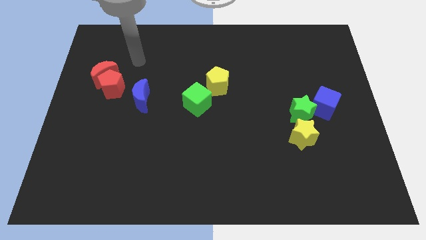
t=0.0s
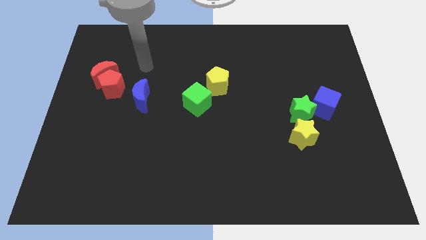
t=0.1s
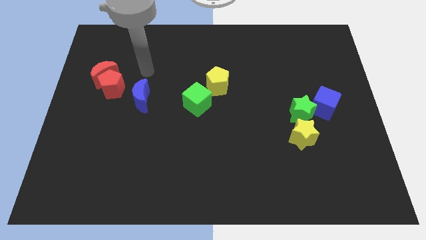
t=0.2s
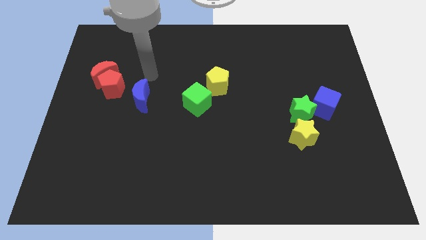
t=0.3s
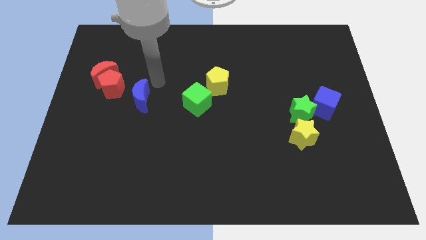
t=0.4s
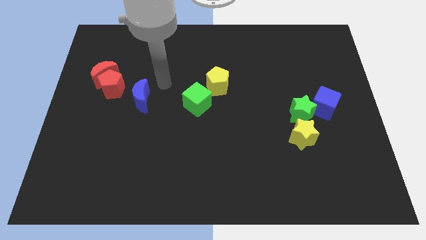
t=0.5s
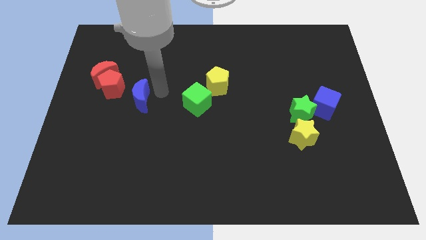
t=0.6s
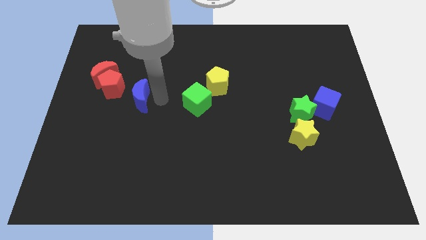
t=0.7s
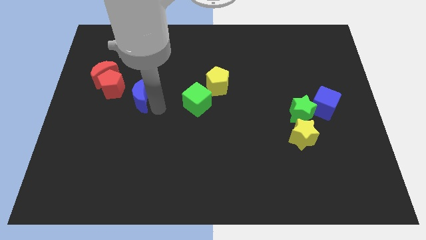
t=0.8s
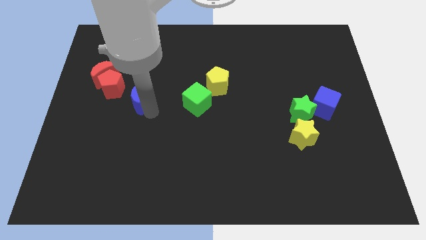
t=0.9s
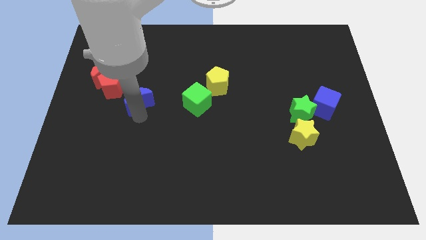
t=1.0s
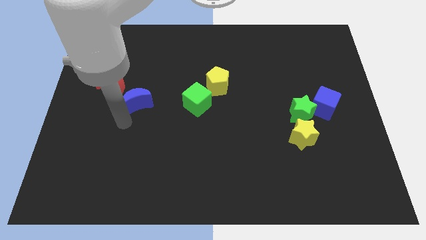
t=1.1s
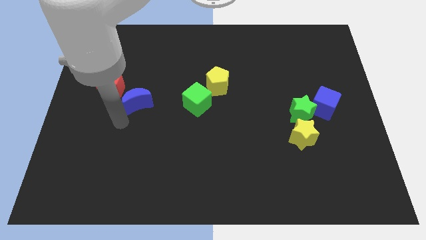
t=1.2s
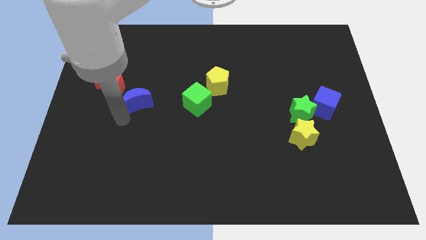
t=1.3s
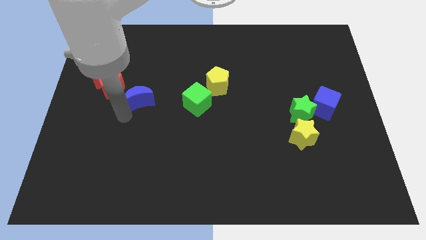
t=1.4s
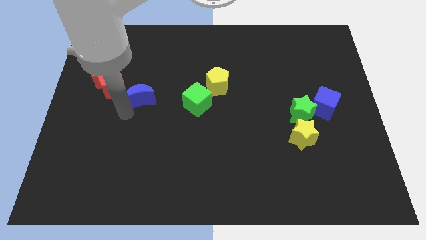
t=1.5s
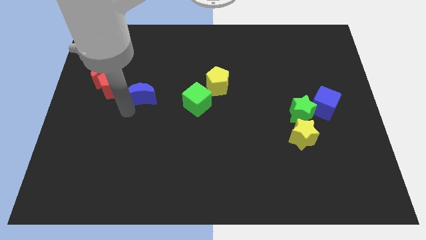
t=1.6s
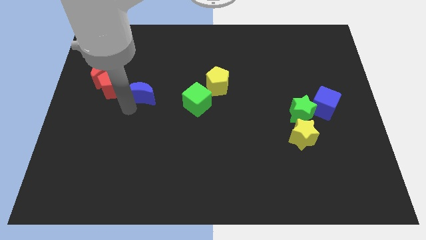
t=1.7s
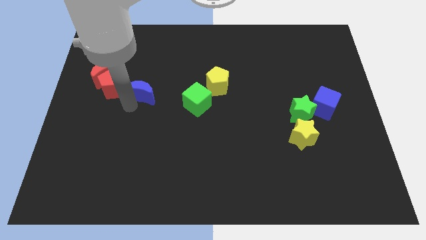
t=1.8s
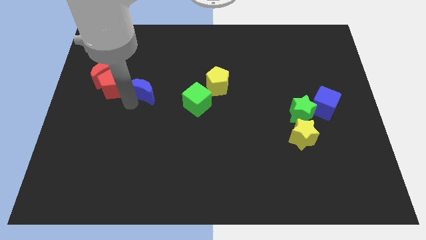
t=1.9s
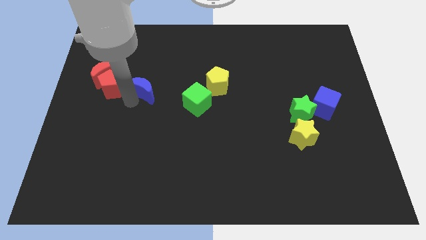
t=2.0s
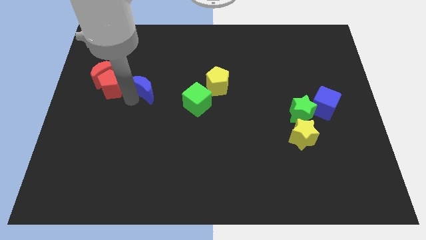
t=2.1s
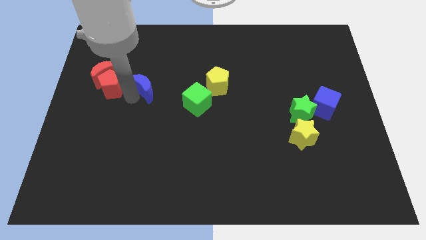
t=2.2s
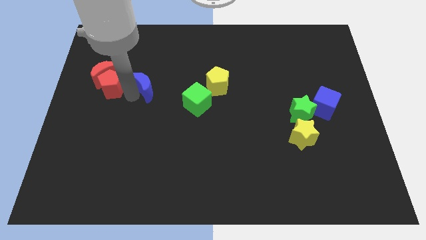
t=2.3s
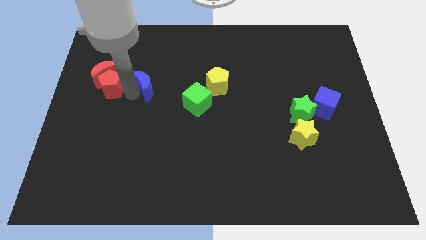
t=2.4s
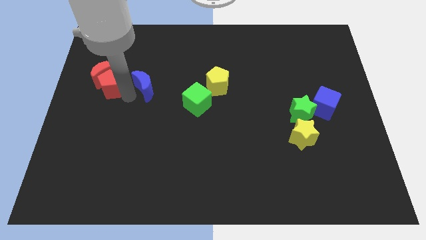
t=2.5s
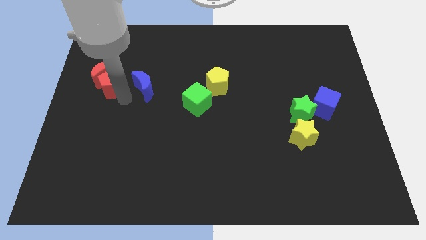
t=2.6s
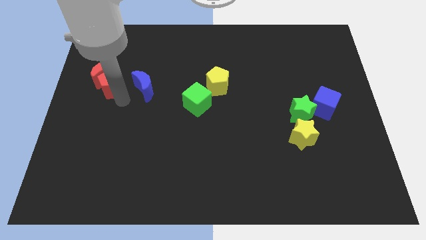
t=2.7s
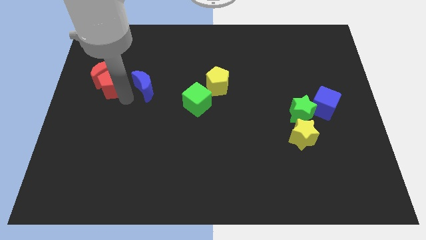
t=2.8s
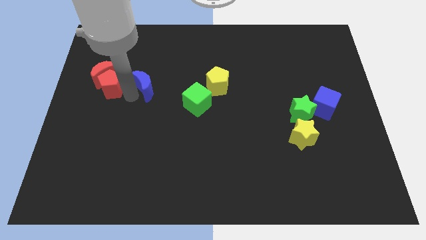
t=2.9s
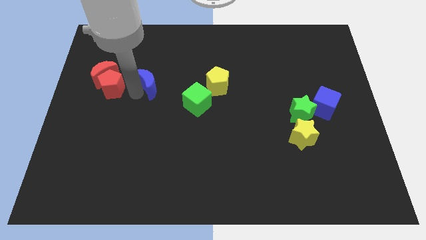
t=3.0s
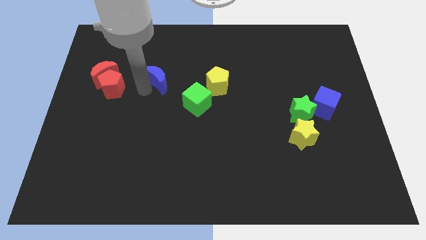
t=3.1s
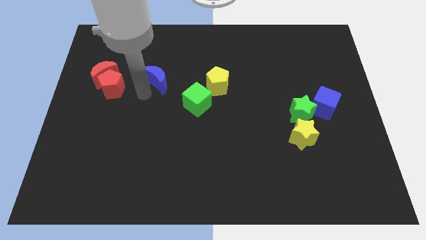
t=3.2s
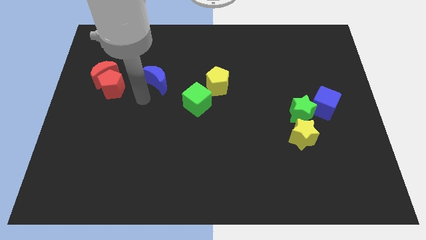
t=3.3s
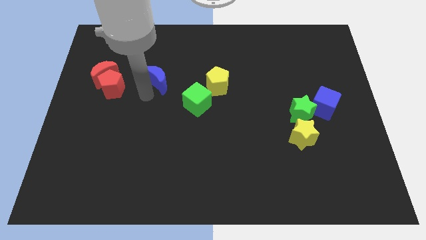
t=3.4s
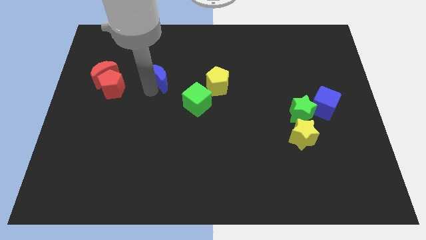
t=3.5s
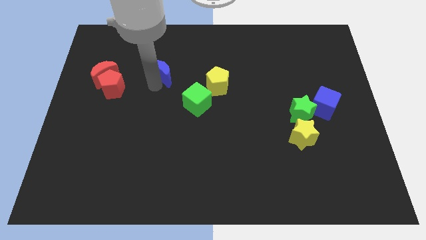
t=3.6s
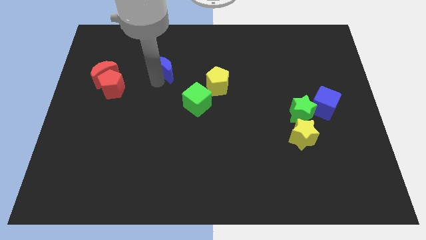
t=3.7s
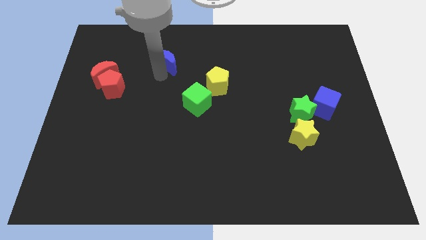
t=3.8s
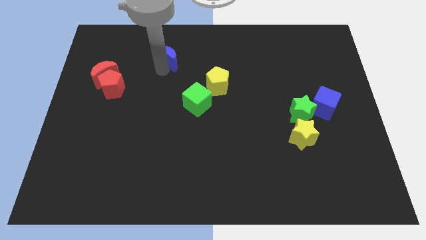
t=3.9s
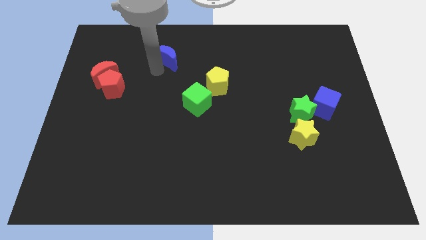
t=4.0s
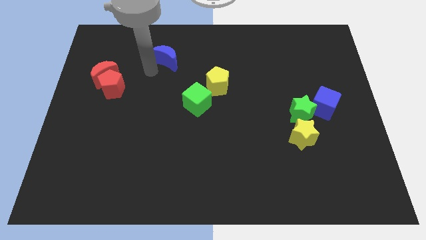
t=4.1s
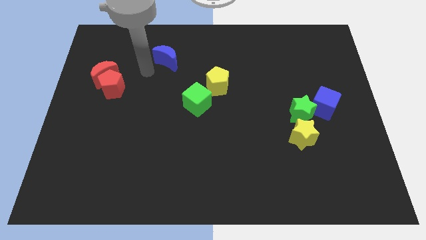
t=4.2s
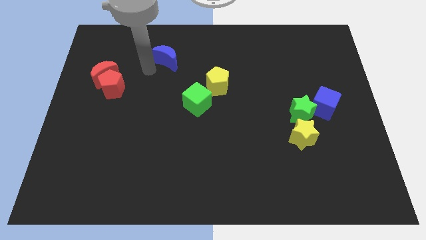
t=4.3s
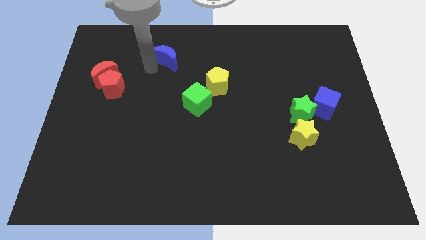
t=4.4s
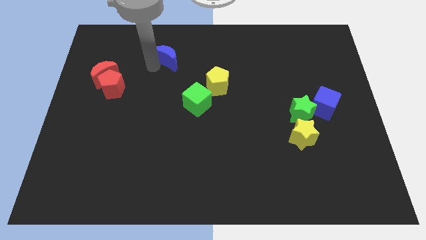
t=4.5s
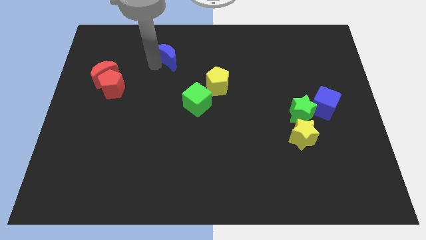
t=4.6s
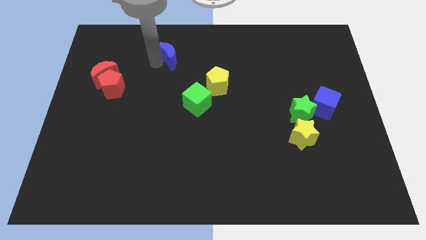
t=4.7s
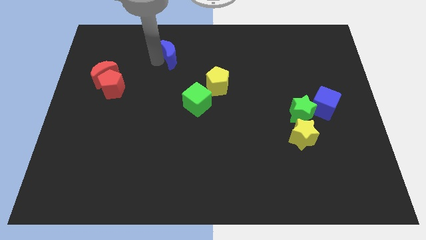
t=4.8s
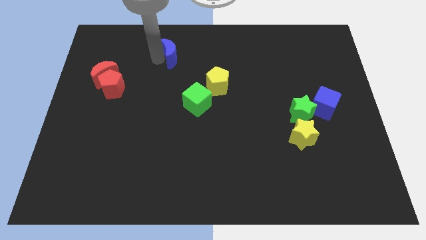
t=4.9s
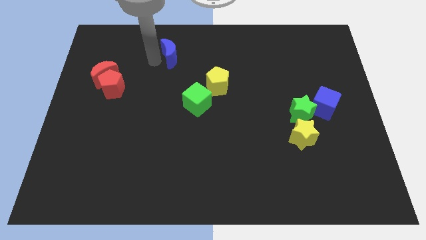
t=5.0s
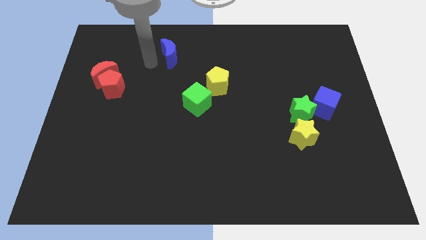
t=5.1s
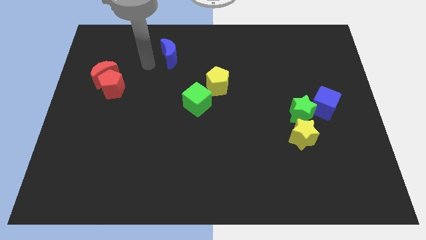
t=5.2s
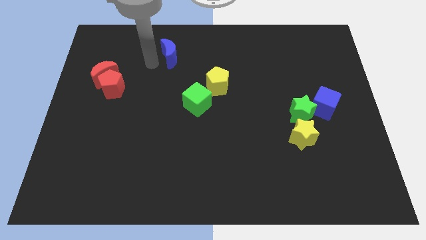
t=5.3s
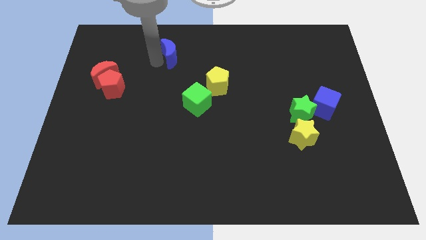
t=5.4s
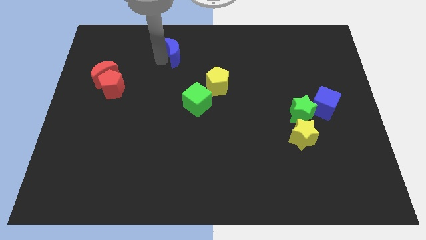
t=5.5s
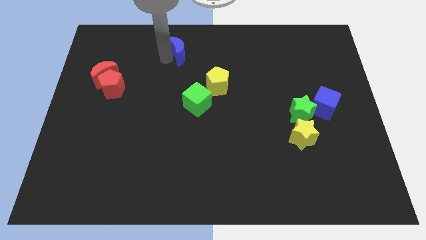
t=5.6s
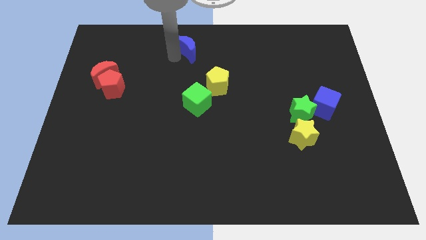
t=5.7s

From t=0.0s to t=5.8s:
move the blue moon to the top side

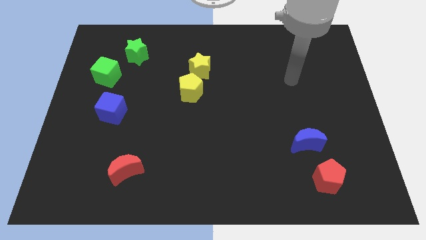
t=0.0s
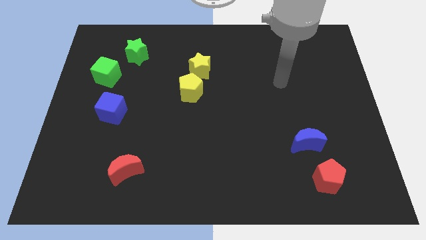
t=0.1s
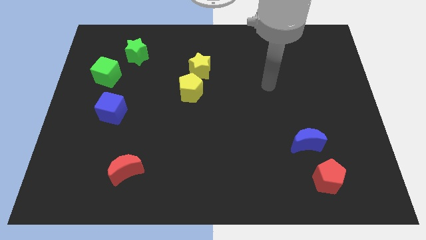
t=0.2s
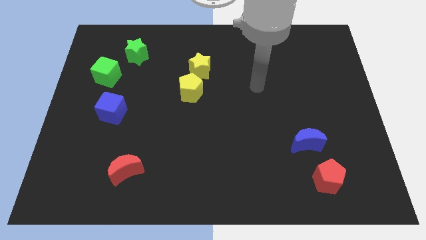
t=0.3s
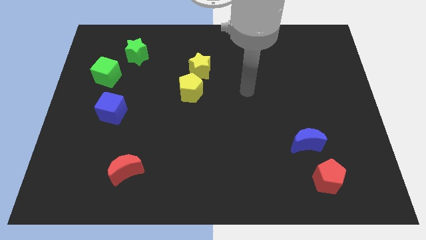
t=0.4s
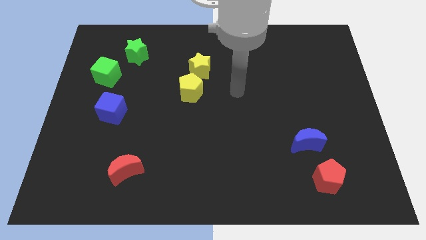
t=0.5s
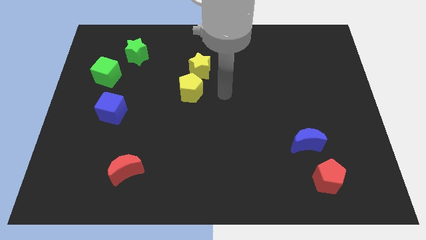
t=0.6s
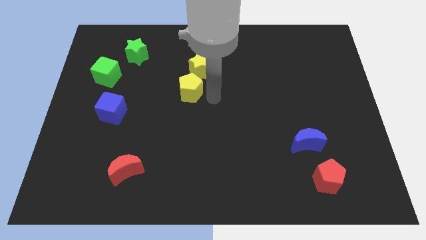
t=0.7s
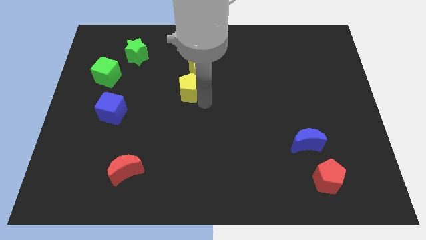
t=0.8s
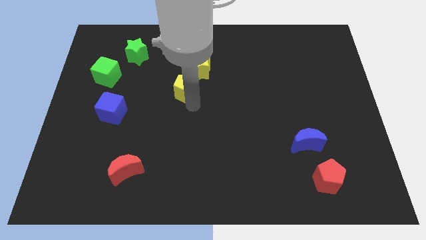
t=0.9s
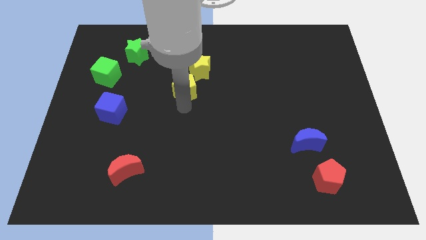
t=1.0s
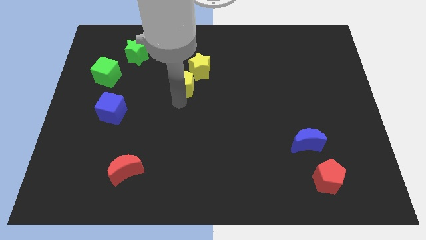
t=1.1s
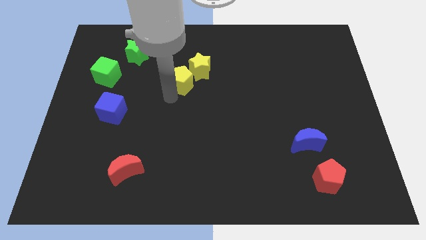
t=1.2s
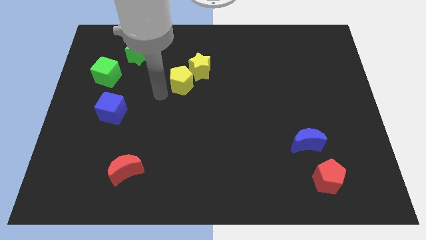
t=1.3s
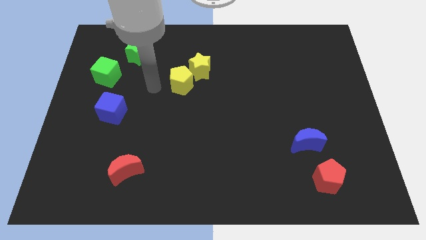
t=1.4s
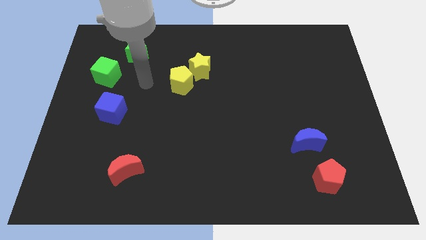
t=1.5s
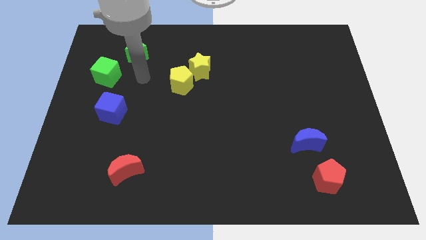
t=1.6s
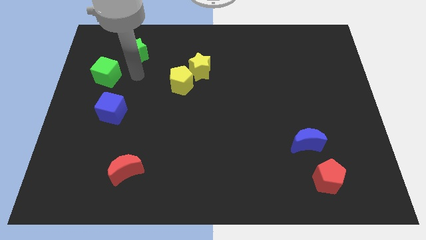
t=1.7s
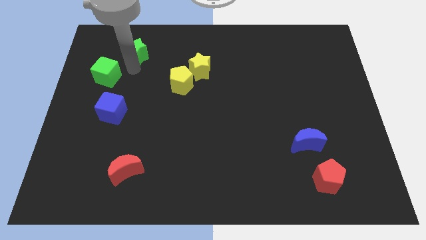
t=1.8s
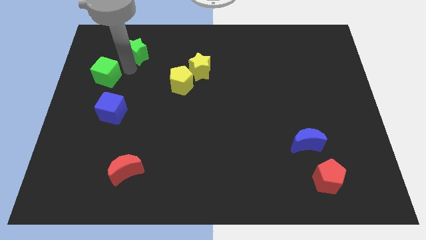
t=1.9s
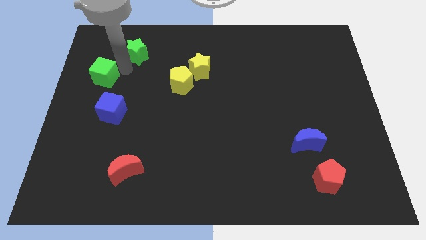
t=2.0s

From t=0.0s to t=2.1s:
push the green cube to the left side

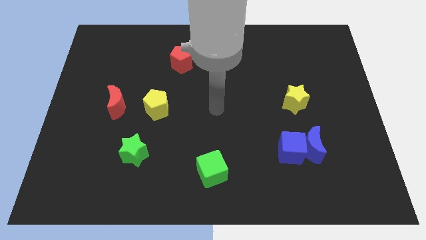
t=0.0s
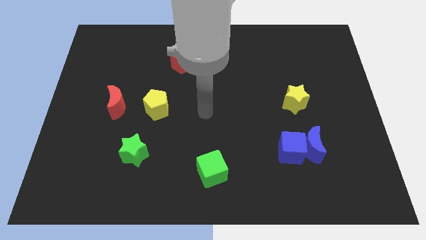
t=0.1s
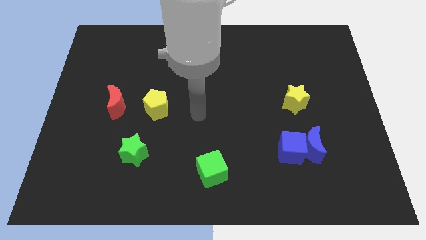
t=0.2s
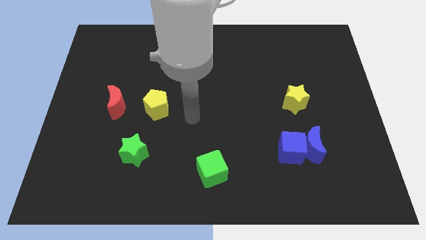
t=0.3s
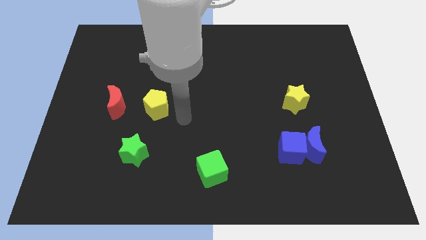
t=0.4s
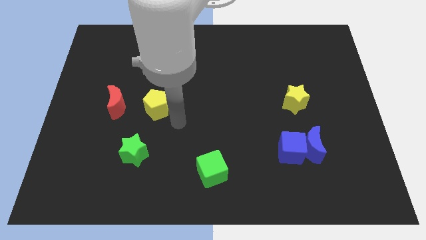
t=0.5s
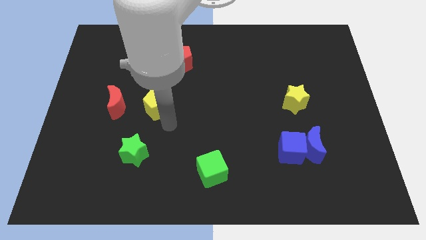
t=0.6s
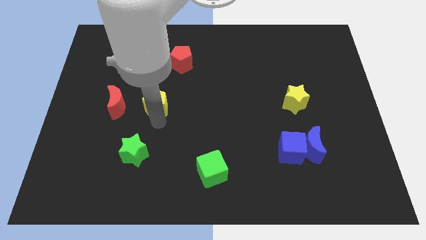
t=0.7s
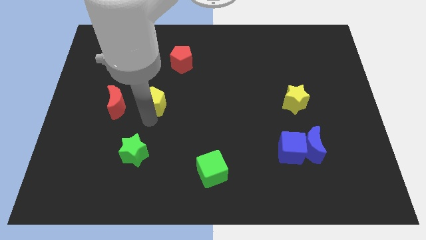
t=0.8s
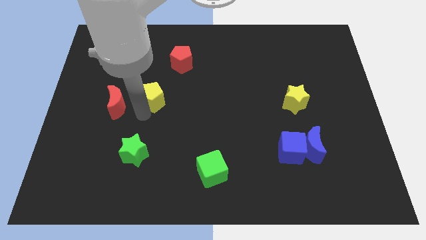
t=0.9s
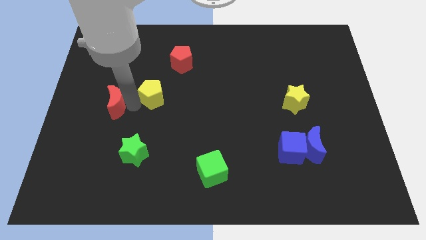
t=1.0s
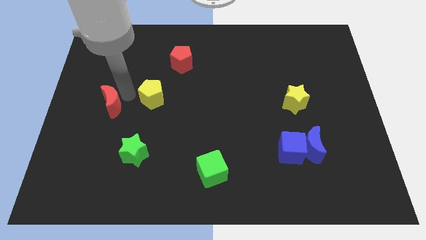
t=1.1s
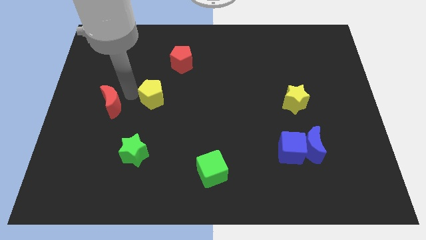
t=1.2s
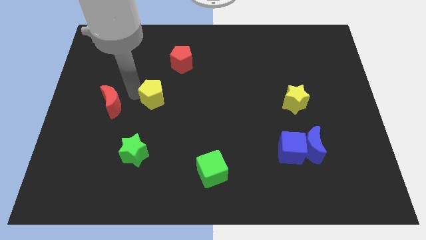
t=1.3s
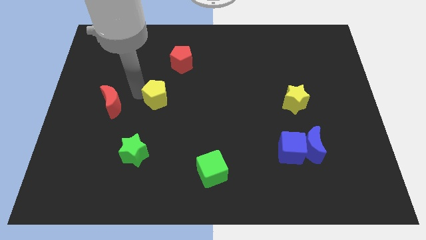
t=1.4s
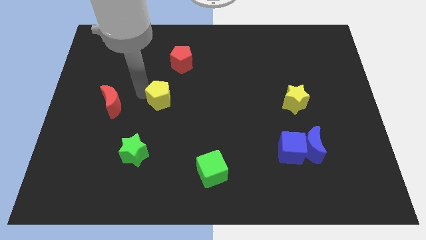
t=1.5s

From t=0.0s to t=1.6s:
slide the yellow pentagon to the center of the board
